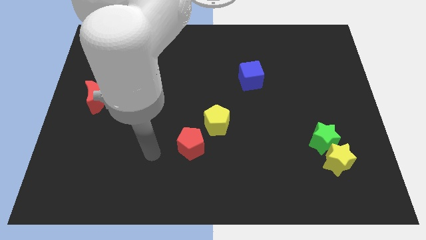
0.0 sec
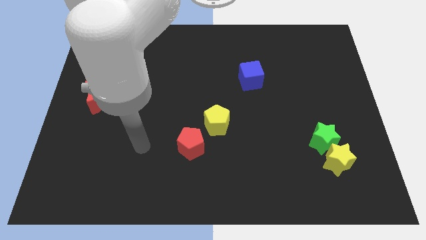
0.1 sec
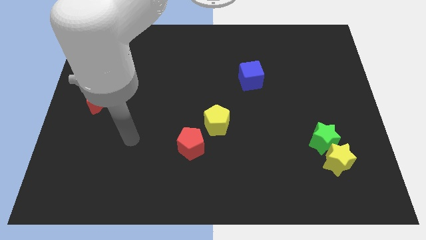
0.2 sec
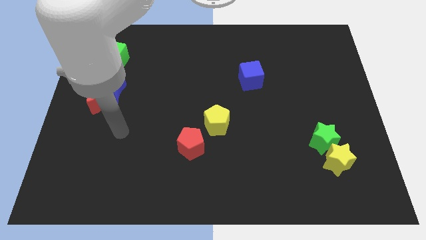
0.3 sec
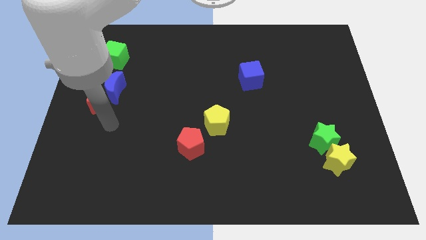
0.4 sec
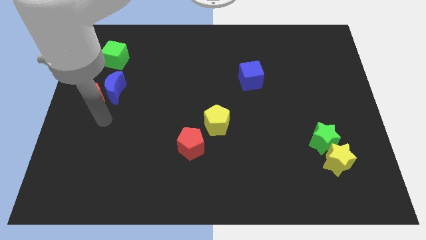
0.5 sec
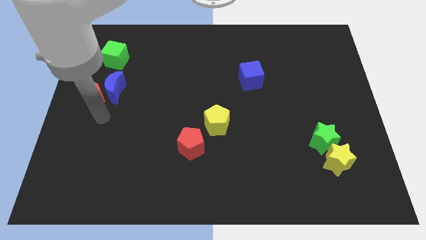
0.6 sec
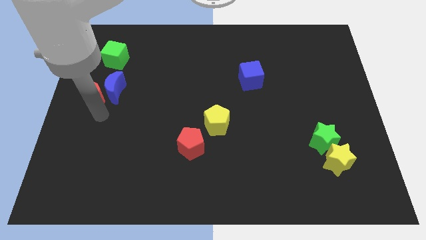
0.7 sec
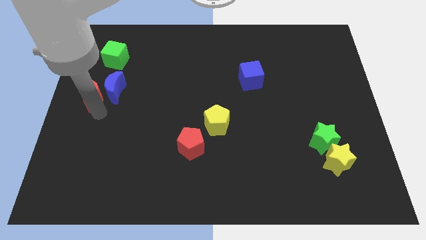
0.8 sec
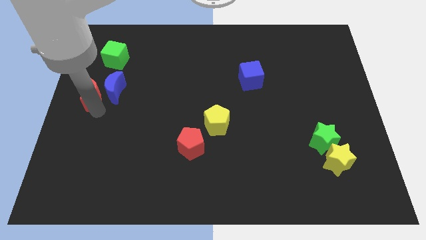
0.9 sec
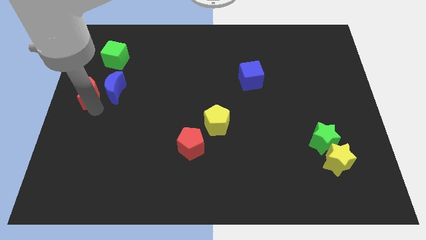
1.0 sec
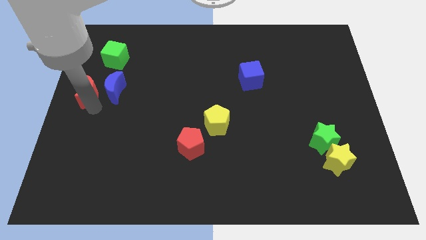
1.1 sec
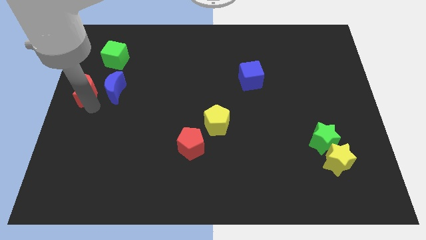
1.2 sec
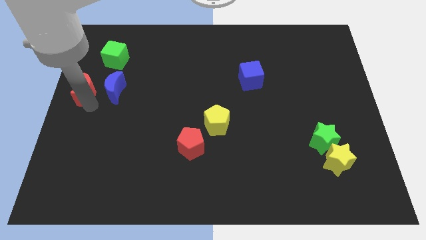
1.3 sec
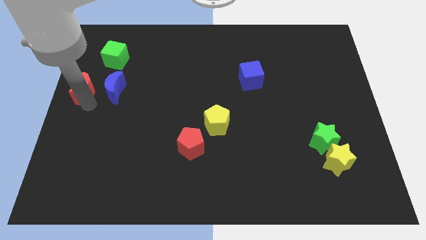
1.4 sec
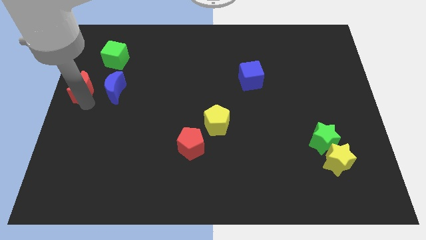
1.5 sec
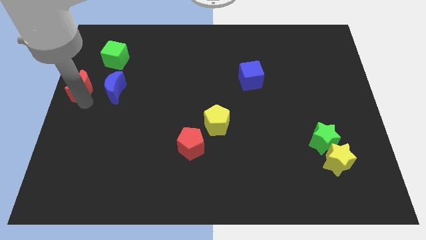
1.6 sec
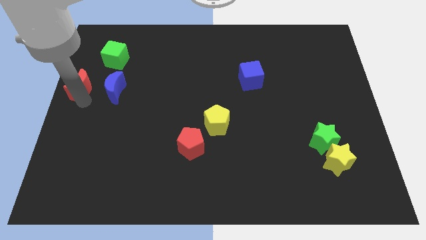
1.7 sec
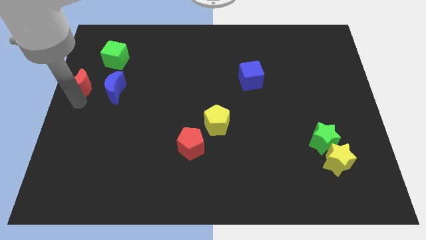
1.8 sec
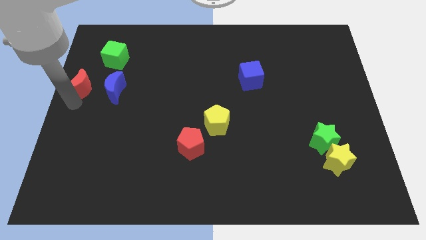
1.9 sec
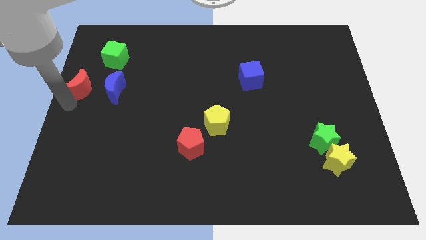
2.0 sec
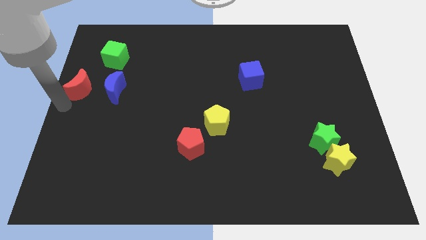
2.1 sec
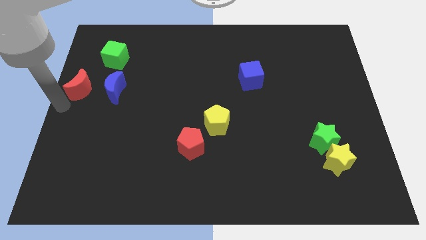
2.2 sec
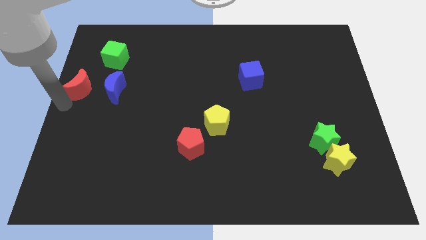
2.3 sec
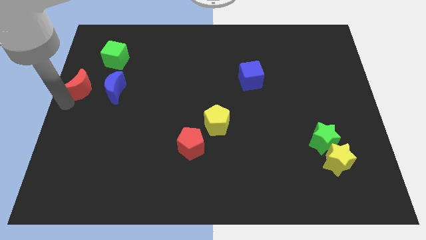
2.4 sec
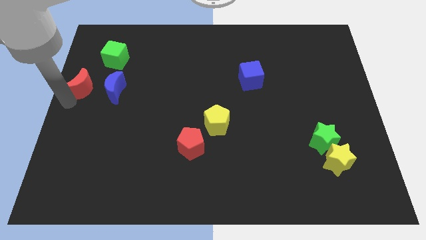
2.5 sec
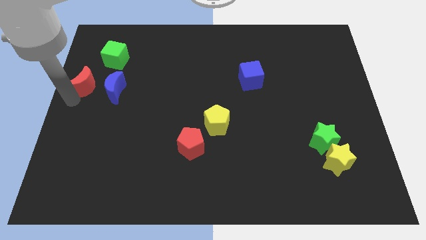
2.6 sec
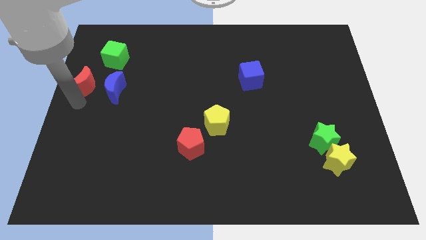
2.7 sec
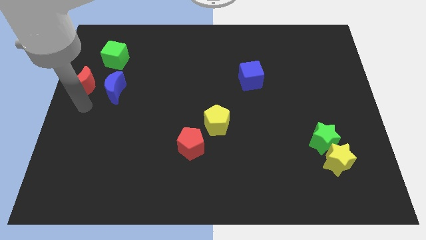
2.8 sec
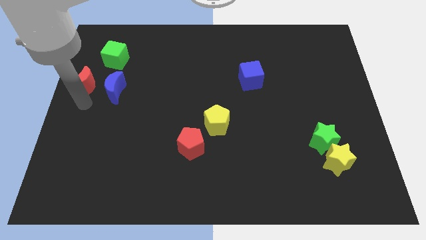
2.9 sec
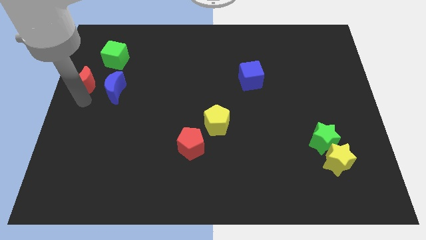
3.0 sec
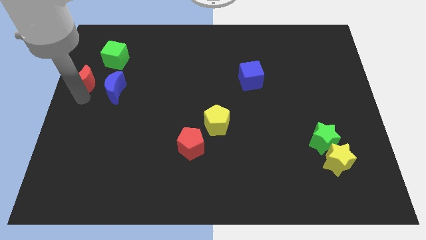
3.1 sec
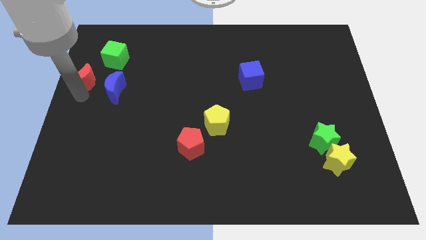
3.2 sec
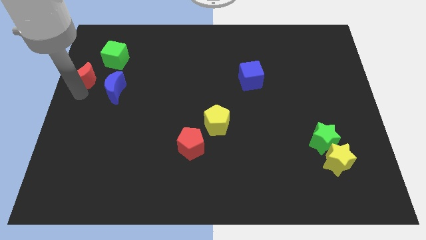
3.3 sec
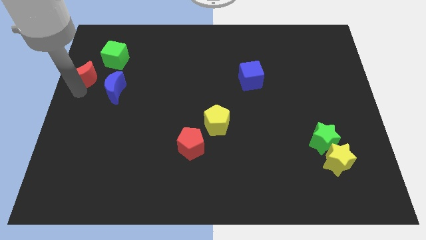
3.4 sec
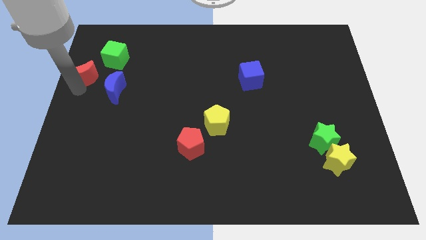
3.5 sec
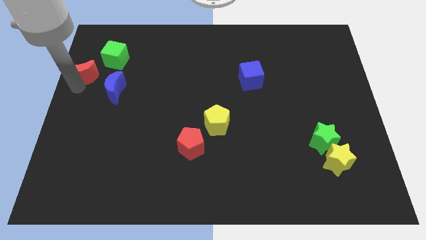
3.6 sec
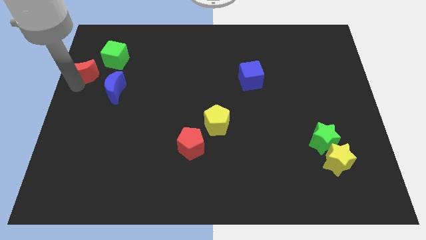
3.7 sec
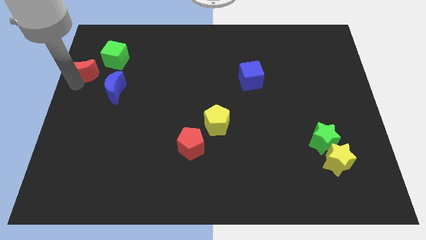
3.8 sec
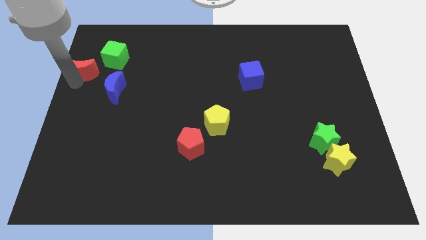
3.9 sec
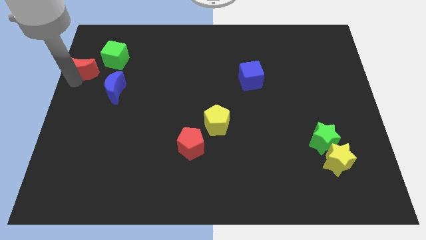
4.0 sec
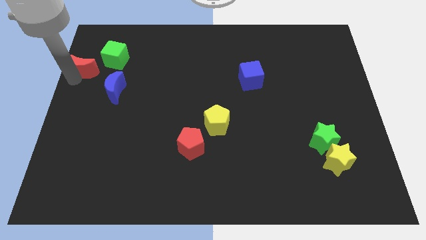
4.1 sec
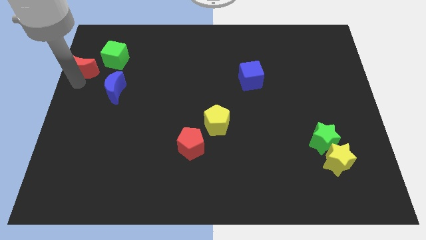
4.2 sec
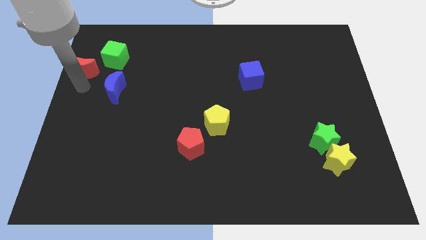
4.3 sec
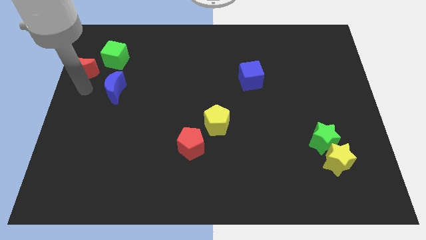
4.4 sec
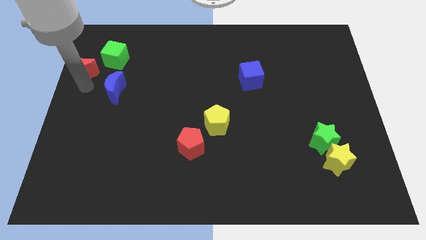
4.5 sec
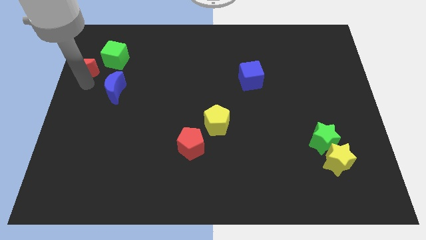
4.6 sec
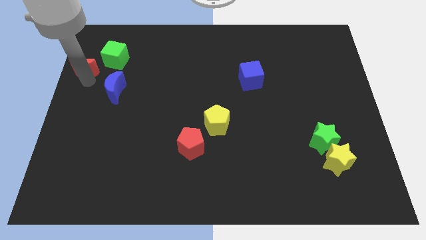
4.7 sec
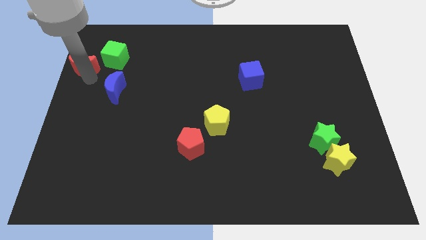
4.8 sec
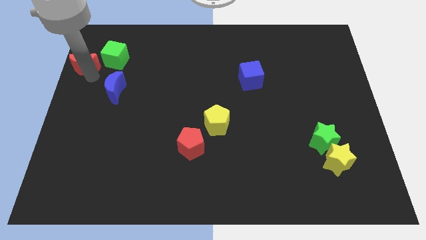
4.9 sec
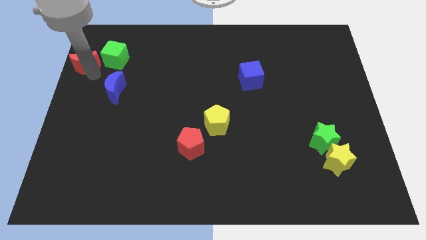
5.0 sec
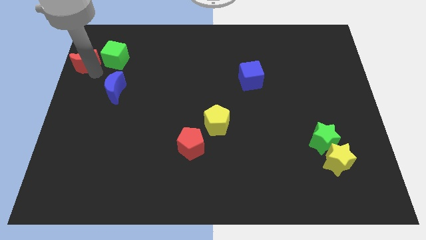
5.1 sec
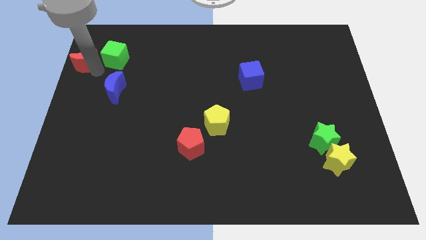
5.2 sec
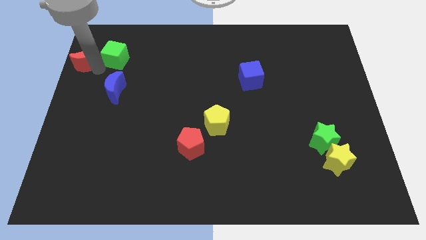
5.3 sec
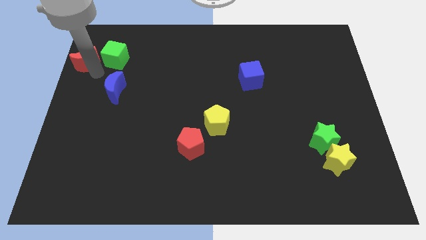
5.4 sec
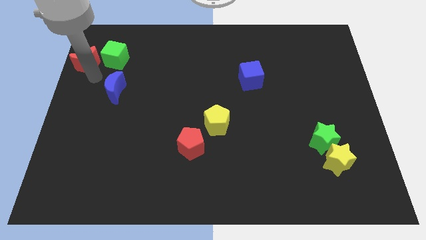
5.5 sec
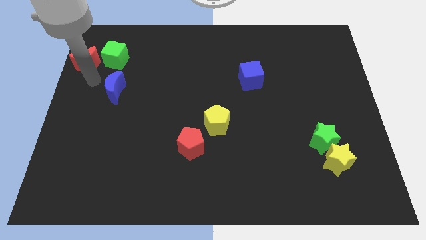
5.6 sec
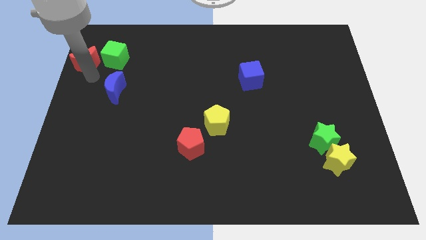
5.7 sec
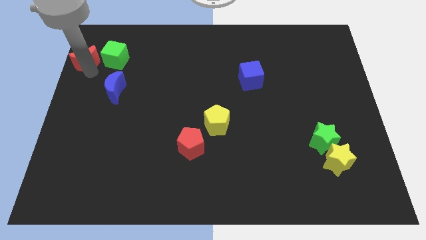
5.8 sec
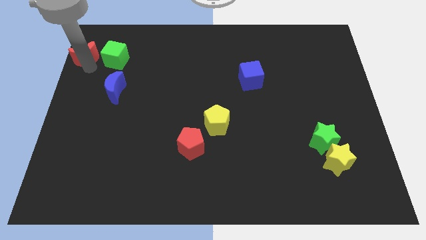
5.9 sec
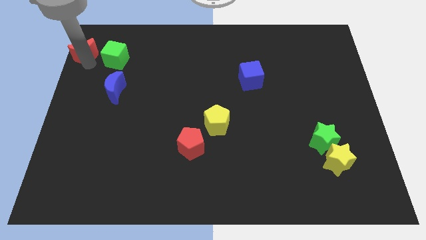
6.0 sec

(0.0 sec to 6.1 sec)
put the red moon to the top left corner

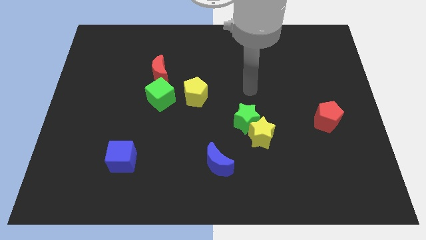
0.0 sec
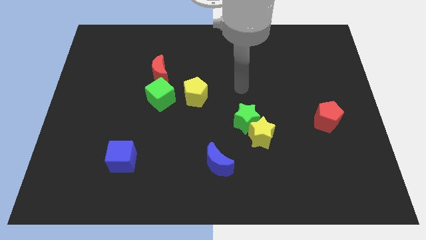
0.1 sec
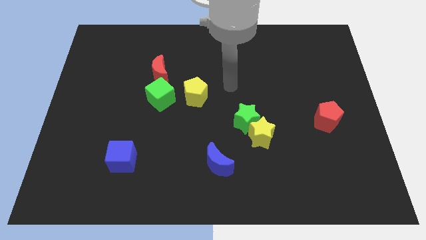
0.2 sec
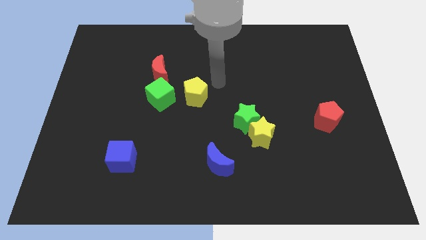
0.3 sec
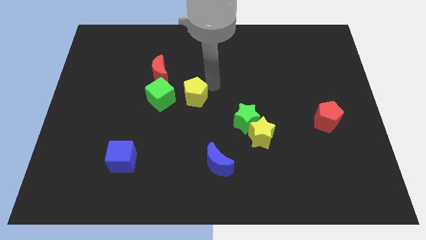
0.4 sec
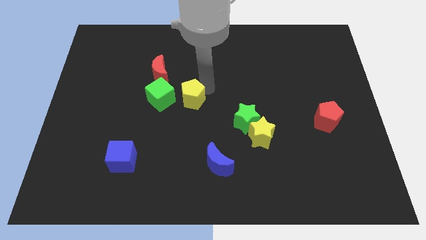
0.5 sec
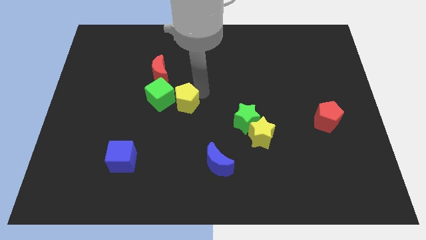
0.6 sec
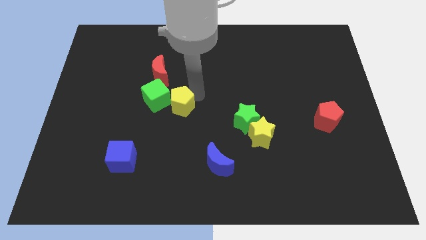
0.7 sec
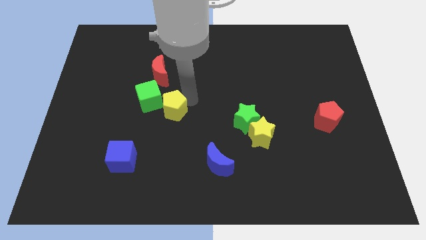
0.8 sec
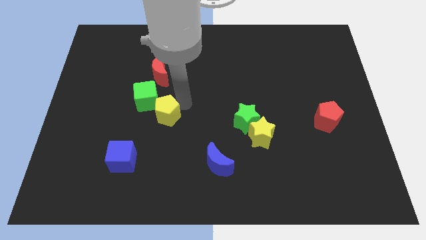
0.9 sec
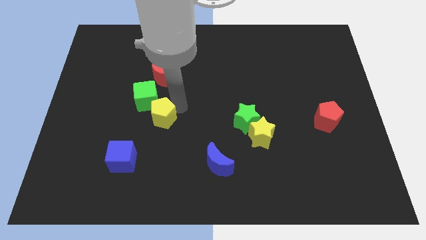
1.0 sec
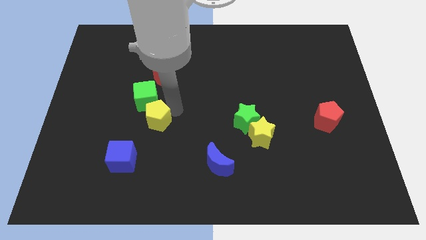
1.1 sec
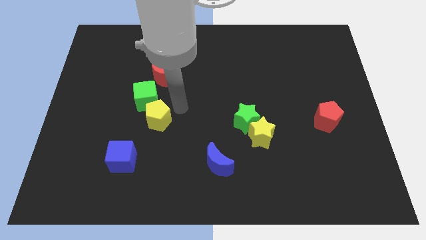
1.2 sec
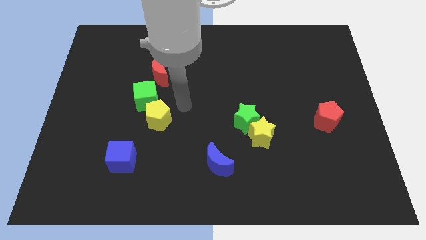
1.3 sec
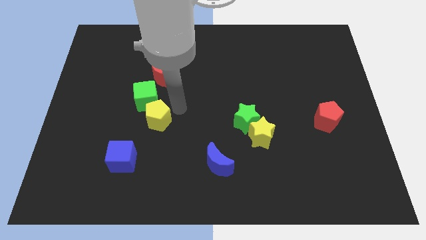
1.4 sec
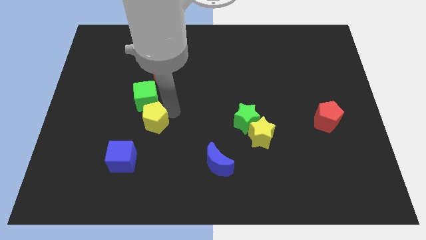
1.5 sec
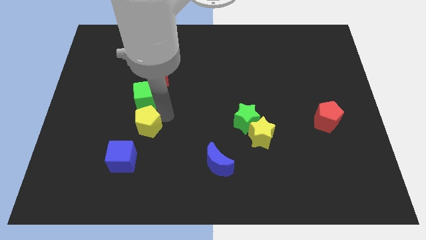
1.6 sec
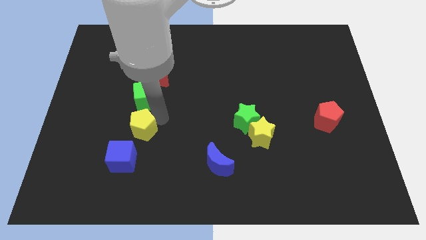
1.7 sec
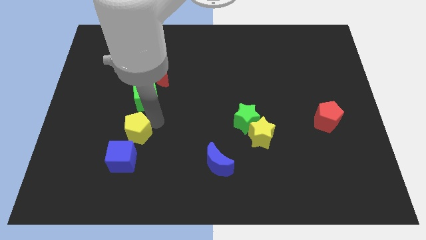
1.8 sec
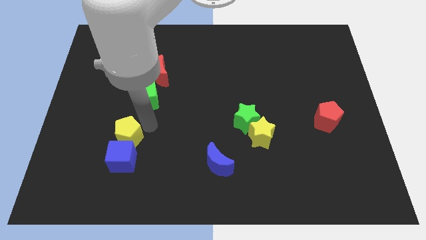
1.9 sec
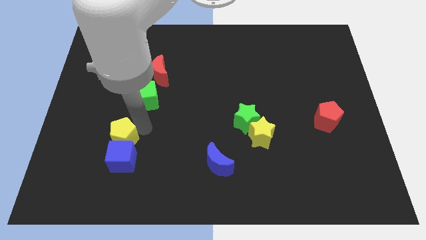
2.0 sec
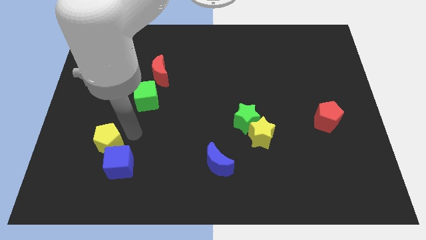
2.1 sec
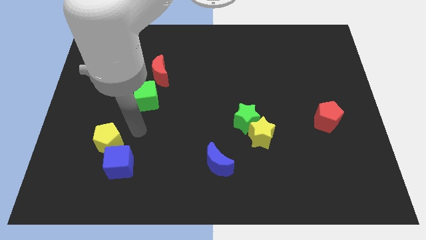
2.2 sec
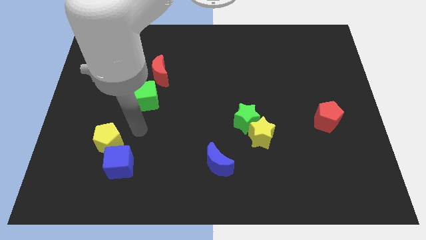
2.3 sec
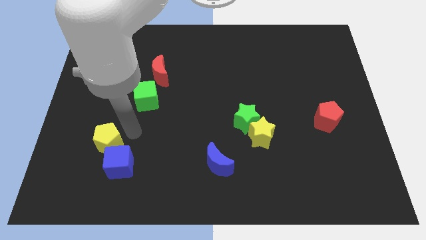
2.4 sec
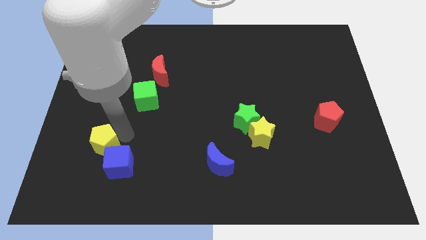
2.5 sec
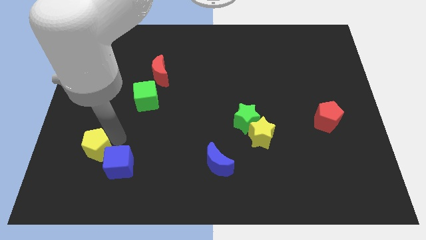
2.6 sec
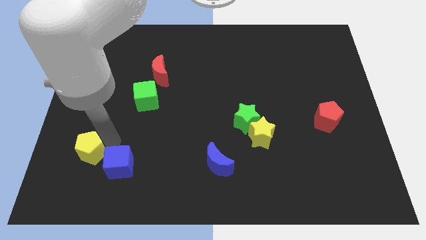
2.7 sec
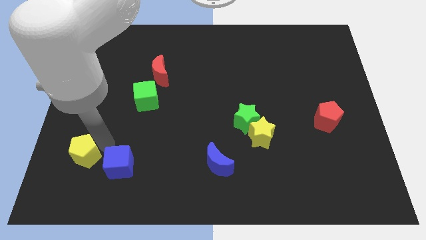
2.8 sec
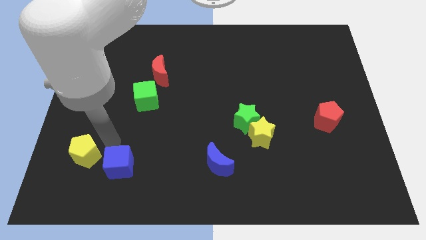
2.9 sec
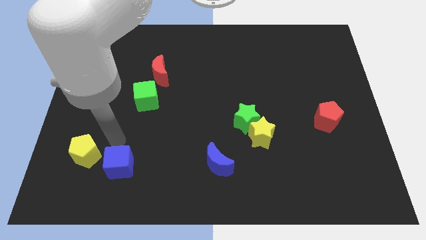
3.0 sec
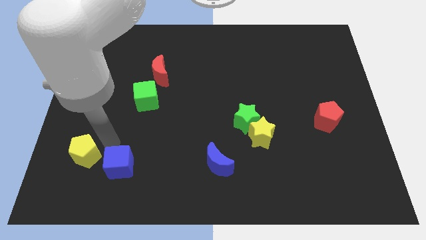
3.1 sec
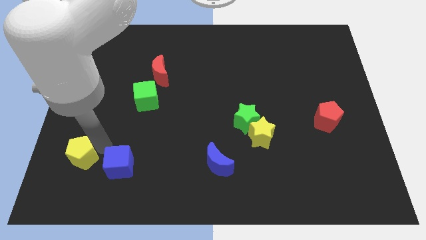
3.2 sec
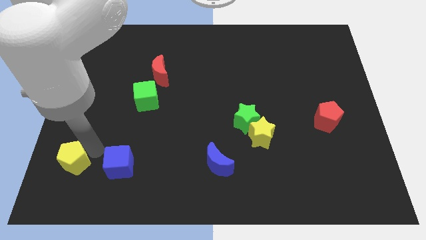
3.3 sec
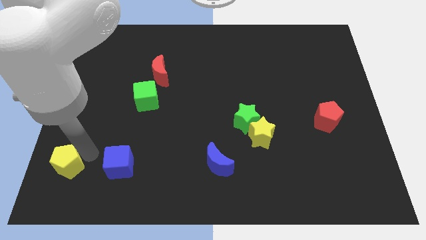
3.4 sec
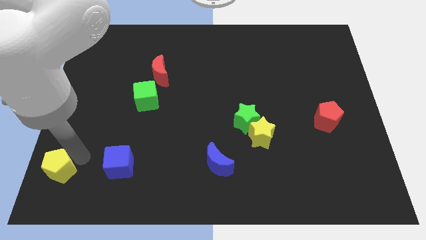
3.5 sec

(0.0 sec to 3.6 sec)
slide the yellow pentagon to the bottom left
